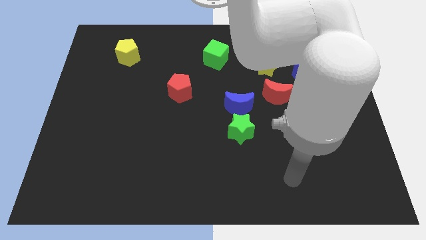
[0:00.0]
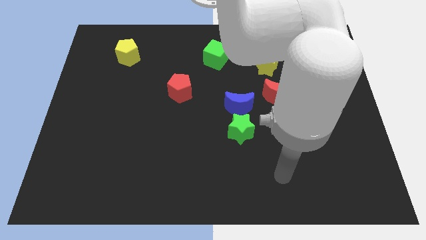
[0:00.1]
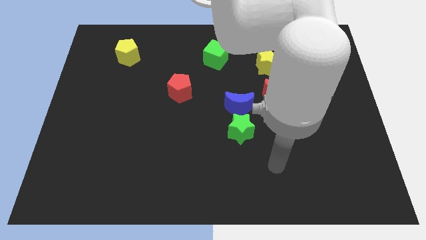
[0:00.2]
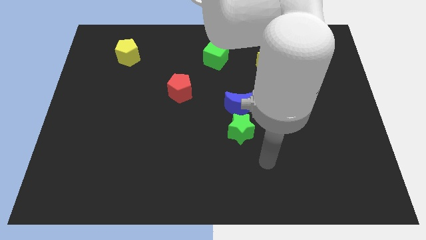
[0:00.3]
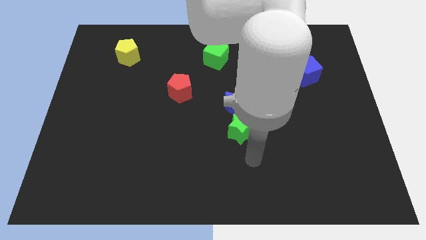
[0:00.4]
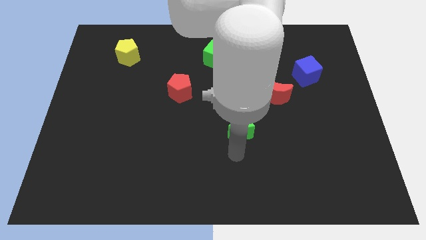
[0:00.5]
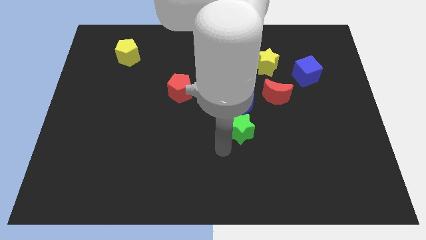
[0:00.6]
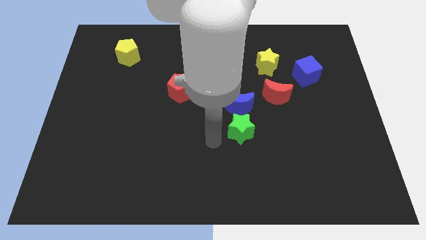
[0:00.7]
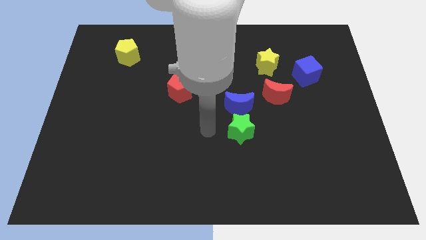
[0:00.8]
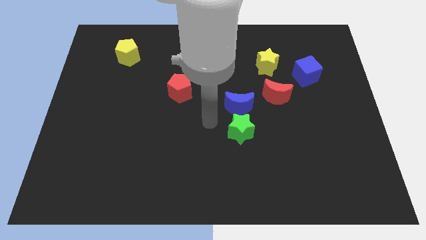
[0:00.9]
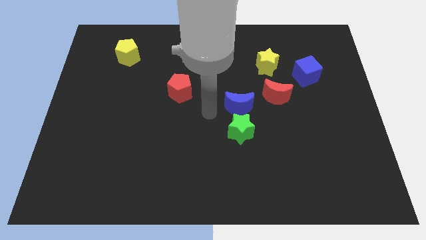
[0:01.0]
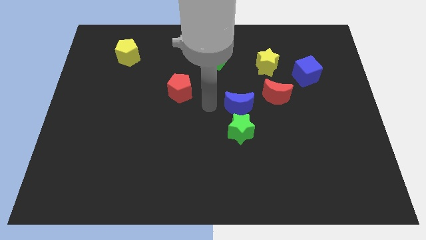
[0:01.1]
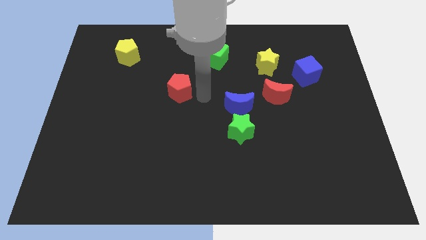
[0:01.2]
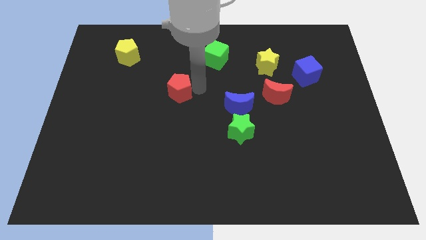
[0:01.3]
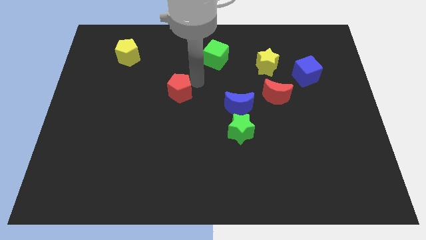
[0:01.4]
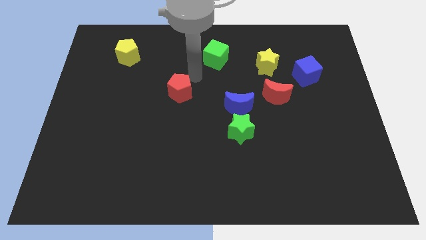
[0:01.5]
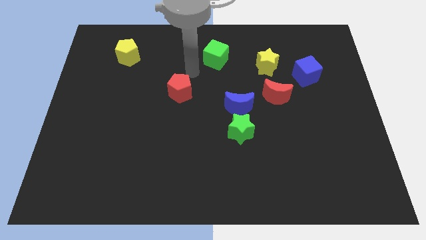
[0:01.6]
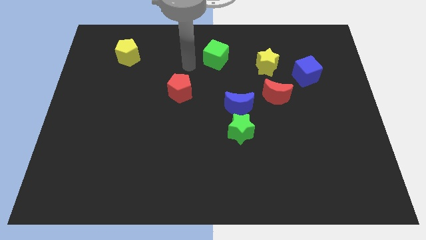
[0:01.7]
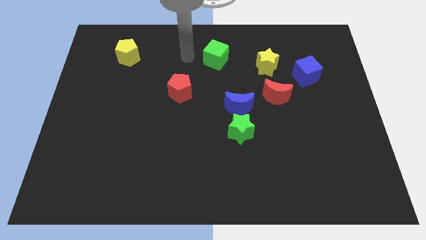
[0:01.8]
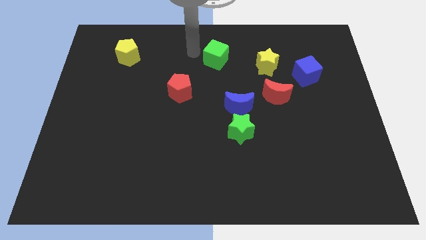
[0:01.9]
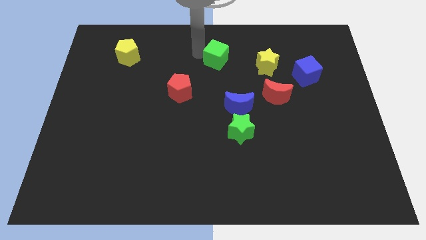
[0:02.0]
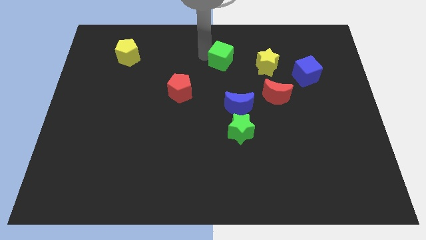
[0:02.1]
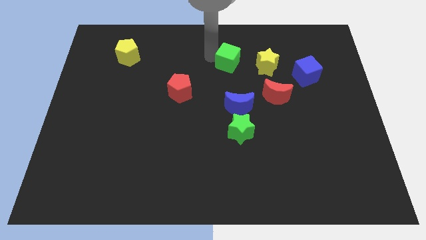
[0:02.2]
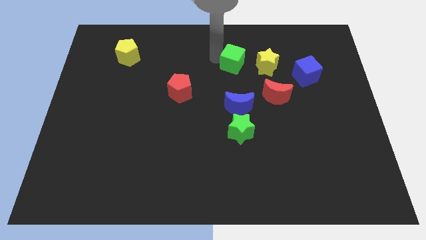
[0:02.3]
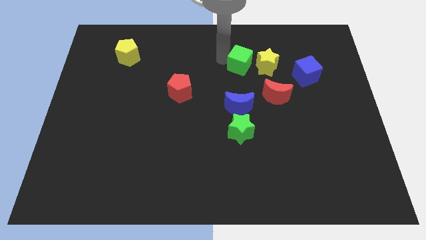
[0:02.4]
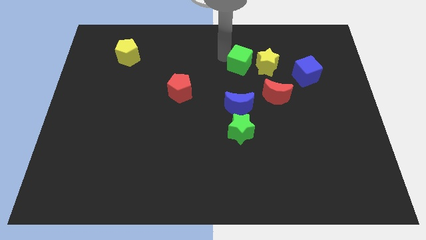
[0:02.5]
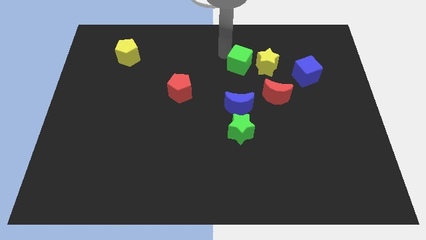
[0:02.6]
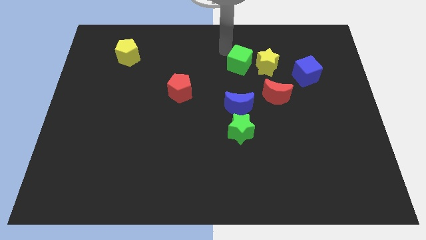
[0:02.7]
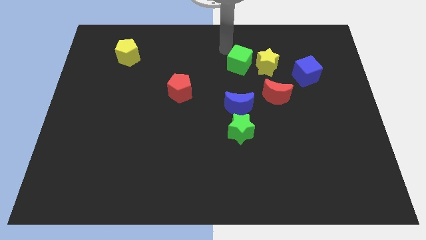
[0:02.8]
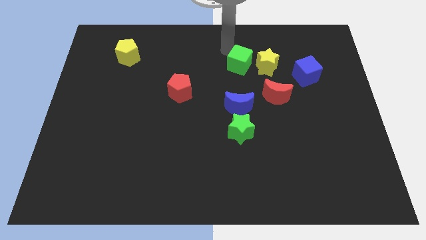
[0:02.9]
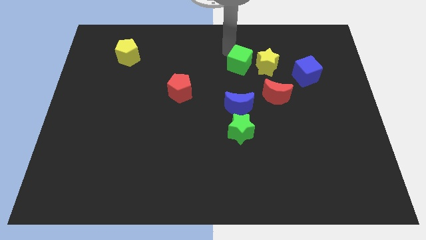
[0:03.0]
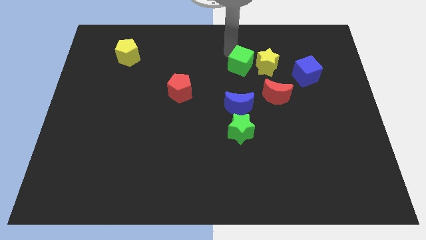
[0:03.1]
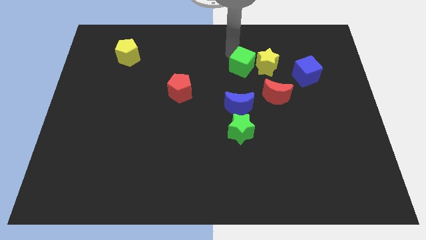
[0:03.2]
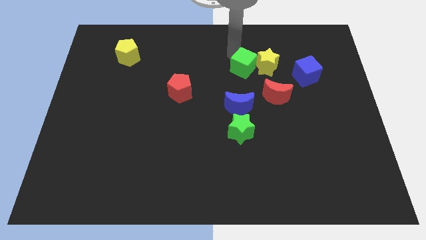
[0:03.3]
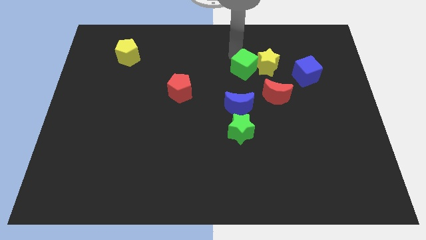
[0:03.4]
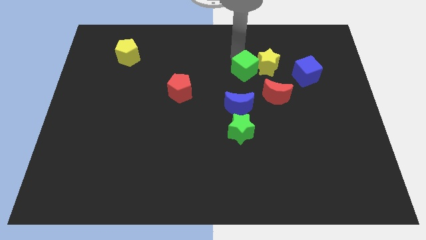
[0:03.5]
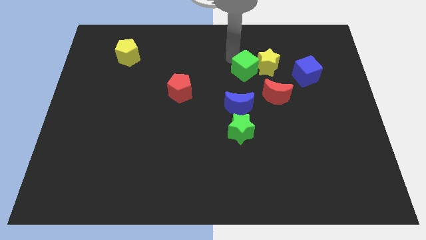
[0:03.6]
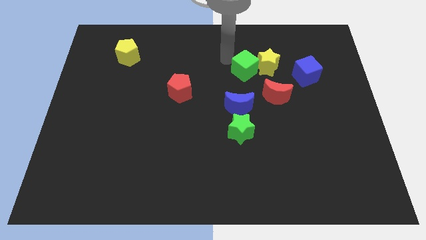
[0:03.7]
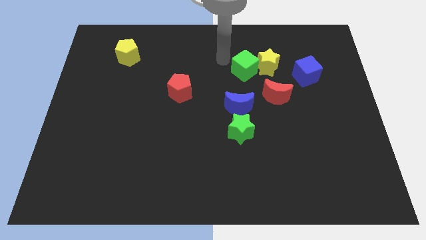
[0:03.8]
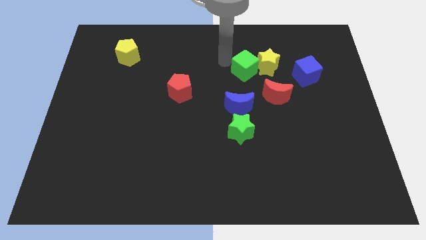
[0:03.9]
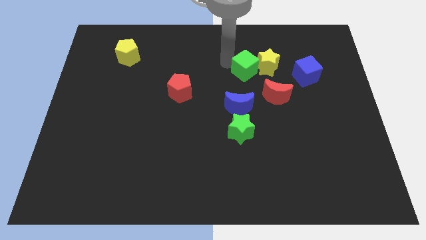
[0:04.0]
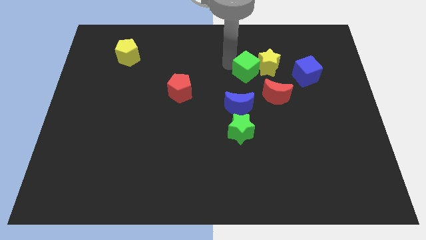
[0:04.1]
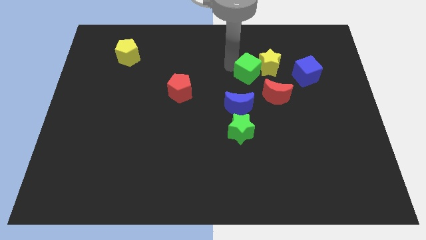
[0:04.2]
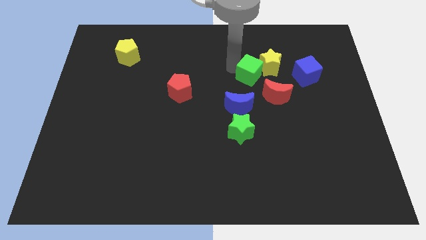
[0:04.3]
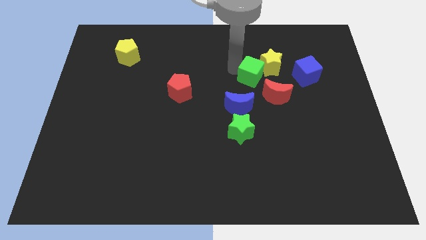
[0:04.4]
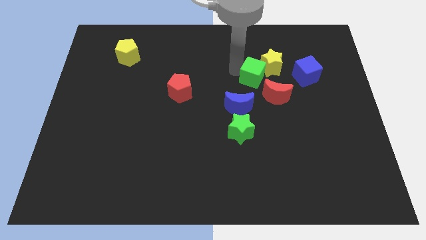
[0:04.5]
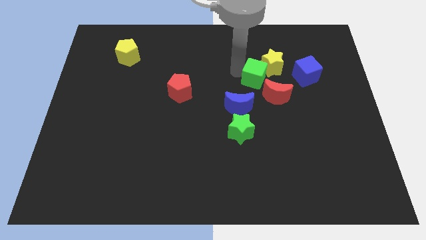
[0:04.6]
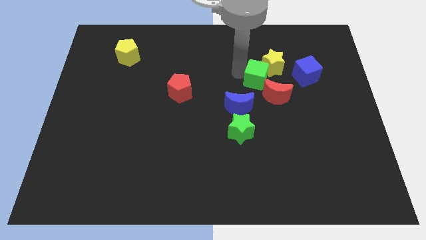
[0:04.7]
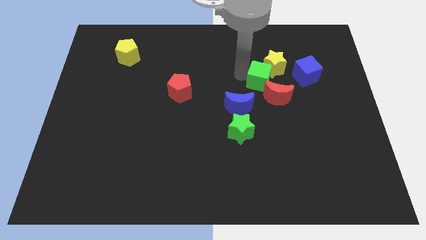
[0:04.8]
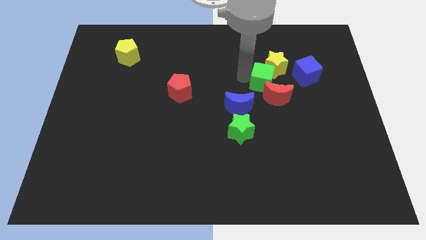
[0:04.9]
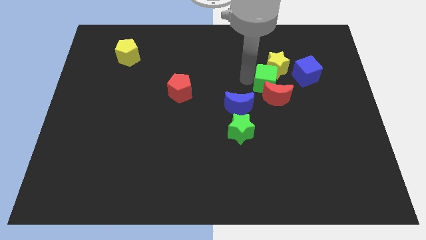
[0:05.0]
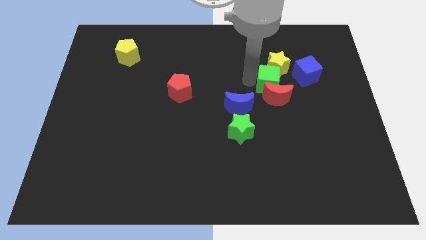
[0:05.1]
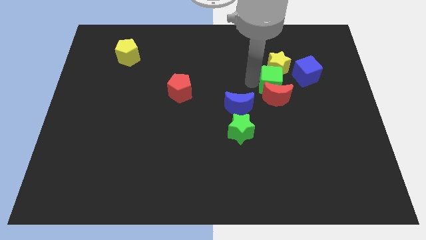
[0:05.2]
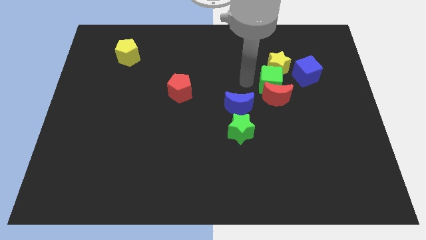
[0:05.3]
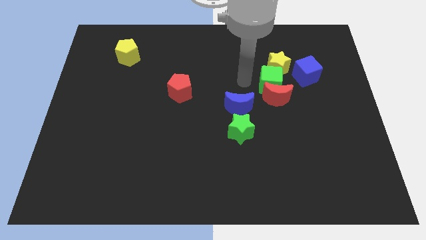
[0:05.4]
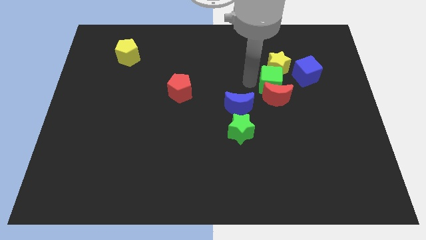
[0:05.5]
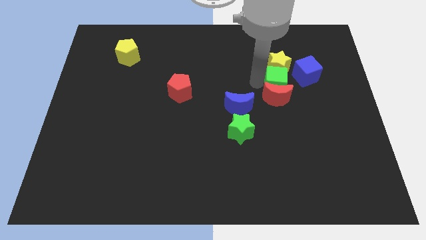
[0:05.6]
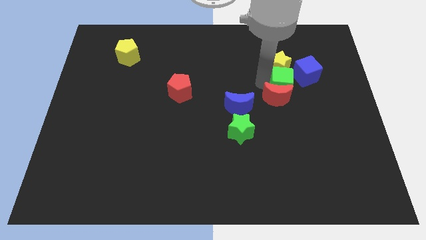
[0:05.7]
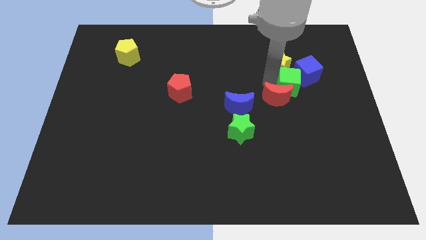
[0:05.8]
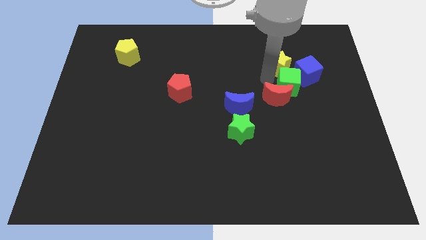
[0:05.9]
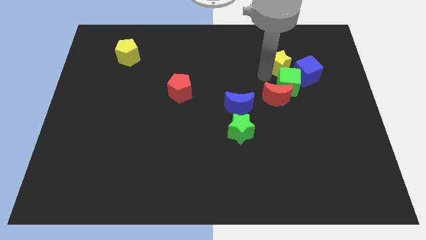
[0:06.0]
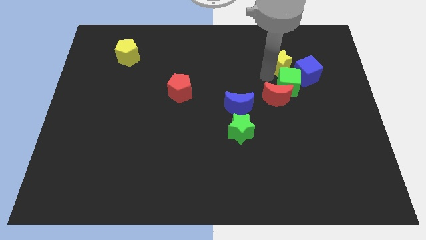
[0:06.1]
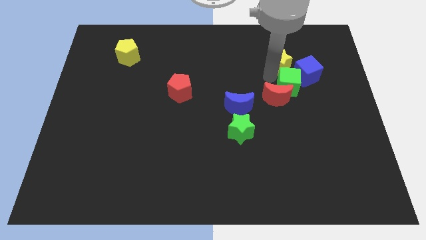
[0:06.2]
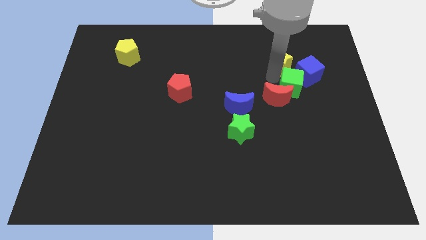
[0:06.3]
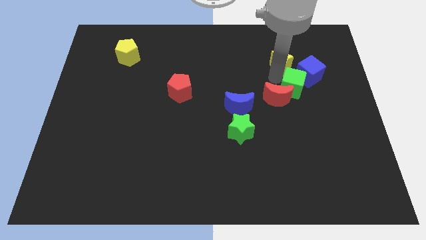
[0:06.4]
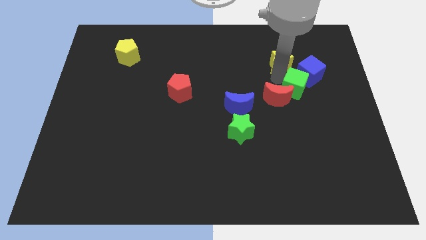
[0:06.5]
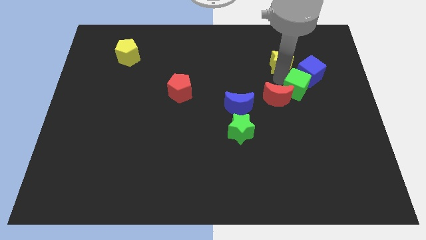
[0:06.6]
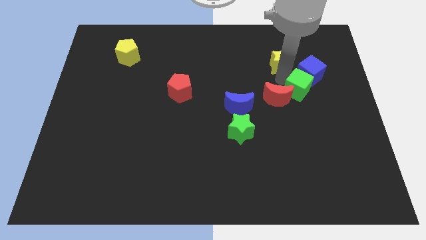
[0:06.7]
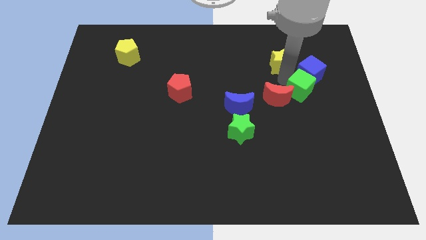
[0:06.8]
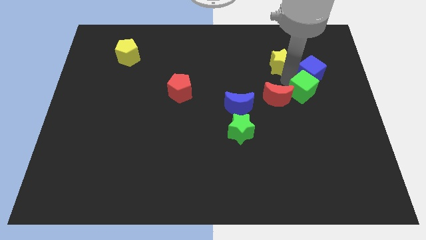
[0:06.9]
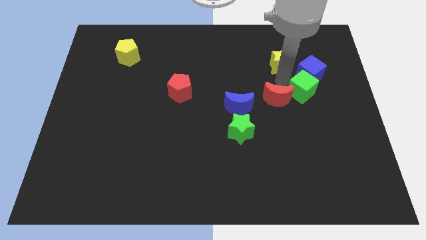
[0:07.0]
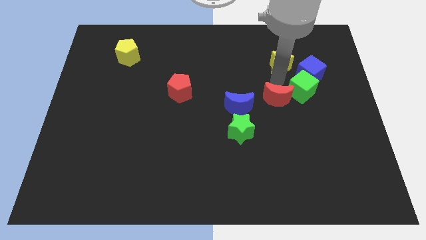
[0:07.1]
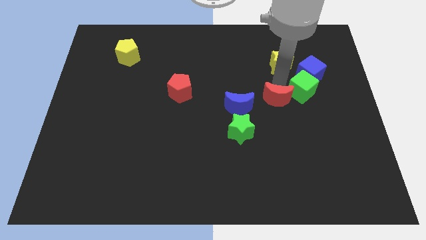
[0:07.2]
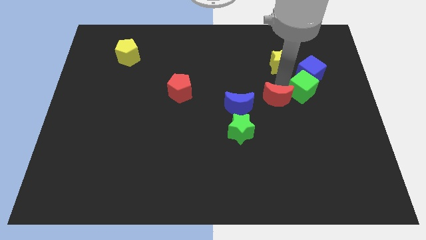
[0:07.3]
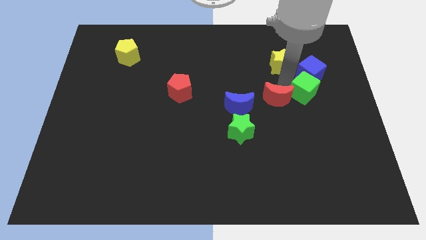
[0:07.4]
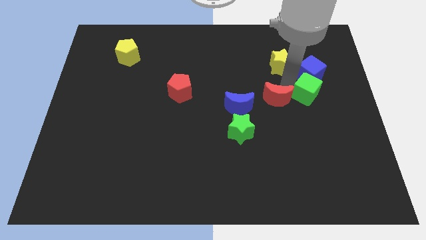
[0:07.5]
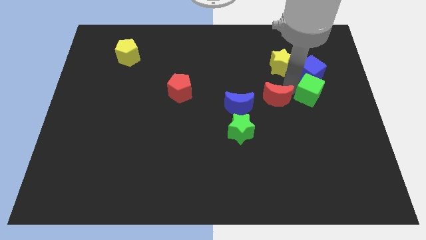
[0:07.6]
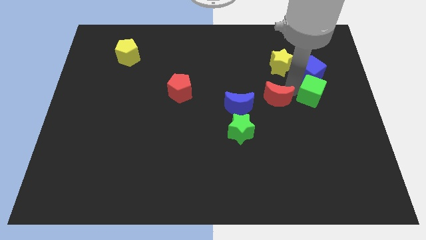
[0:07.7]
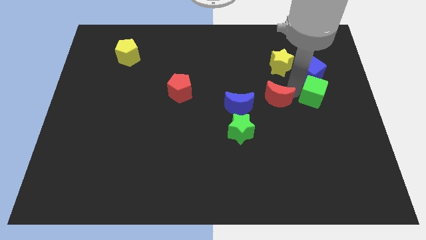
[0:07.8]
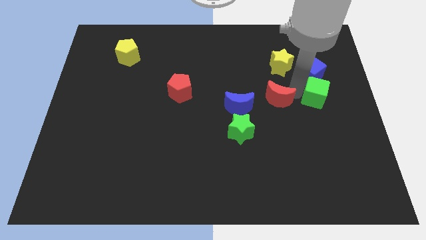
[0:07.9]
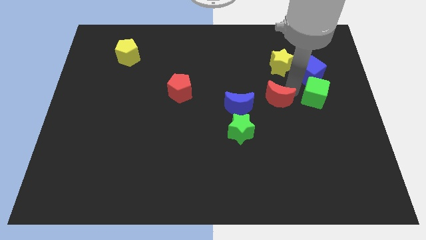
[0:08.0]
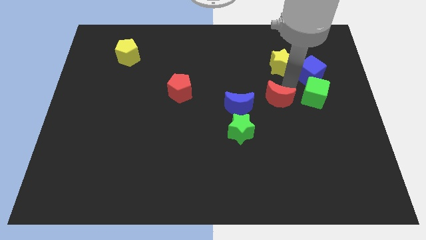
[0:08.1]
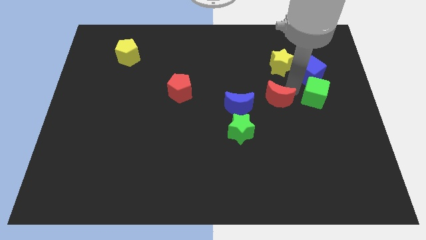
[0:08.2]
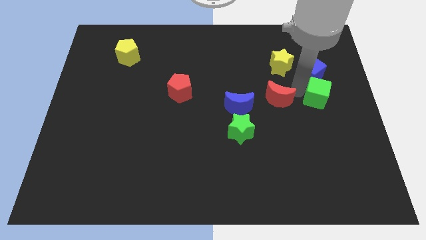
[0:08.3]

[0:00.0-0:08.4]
slide the green cube to the right side of the board
